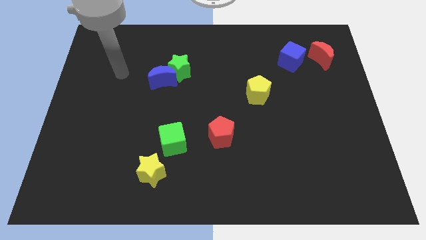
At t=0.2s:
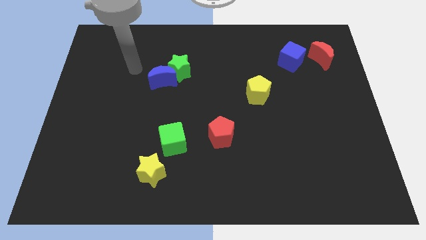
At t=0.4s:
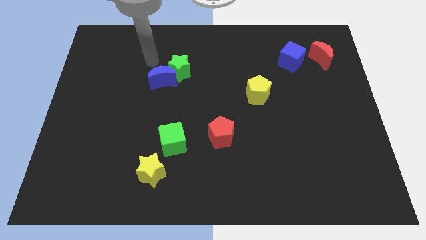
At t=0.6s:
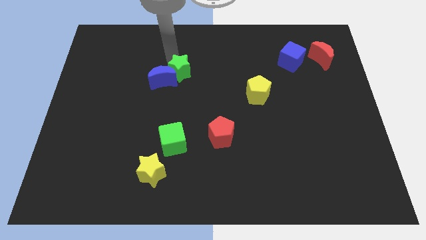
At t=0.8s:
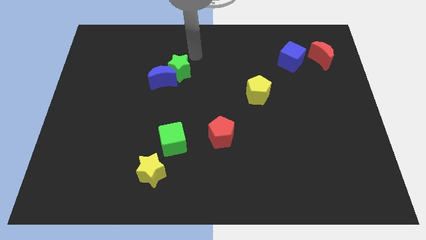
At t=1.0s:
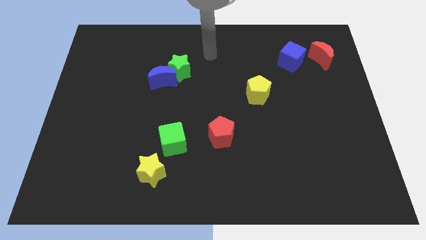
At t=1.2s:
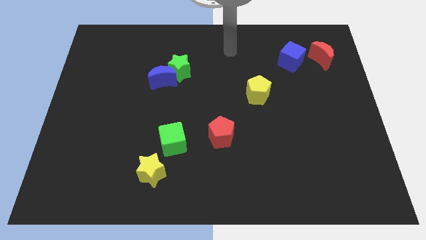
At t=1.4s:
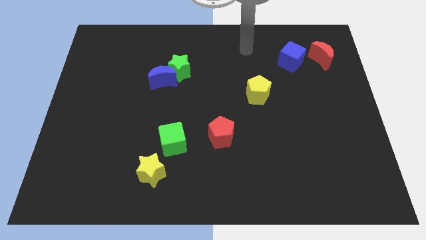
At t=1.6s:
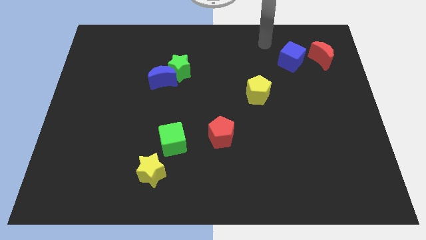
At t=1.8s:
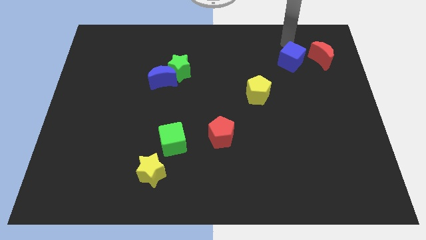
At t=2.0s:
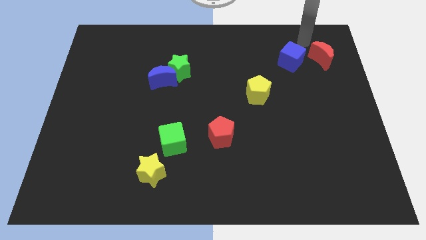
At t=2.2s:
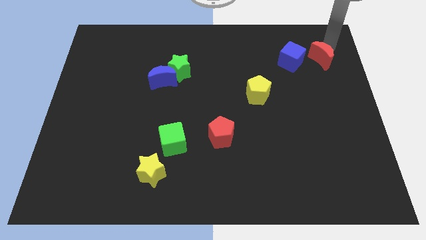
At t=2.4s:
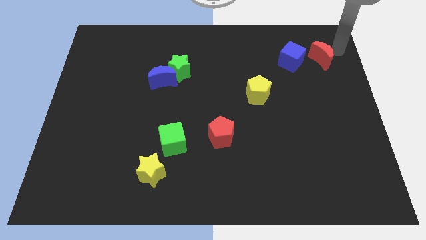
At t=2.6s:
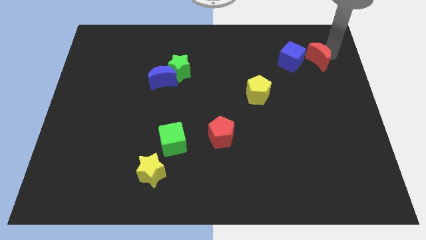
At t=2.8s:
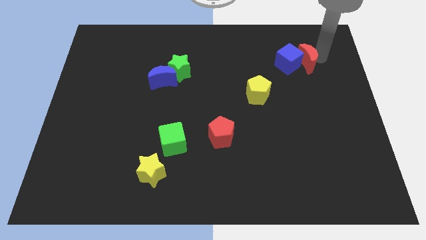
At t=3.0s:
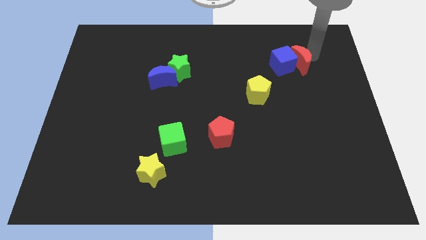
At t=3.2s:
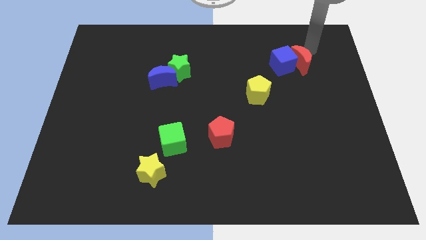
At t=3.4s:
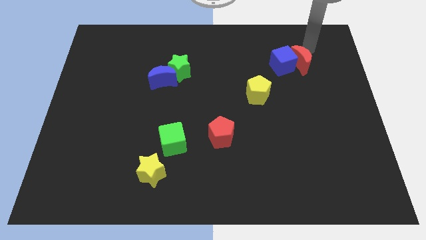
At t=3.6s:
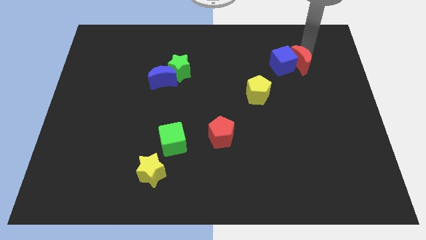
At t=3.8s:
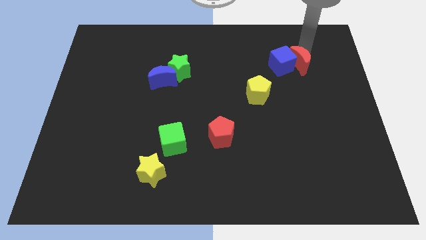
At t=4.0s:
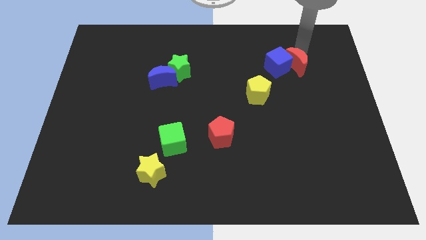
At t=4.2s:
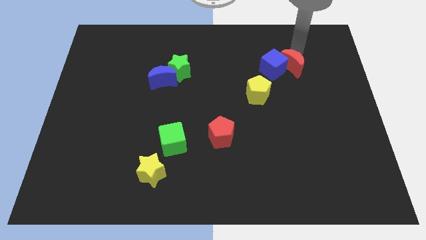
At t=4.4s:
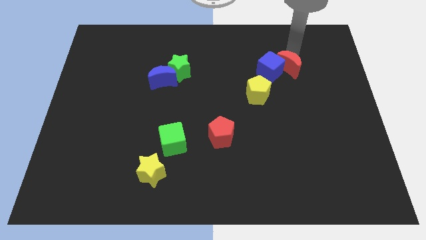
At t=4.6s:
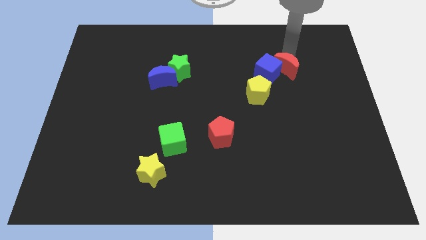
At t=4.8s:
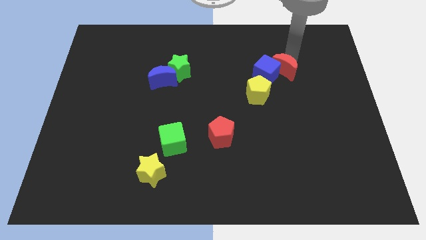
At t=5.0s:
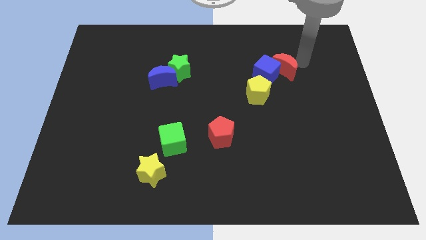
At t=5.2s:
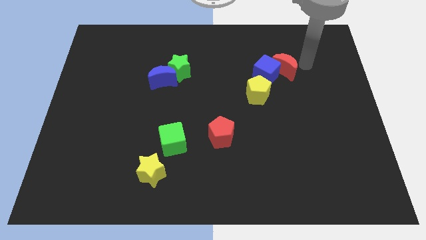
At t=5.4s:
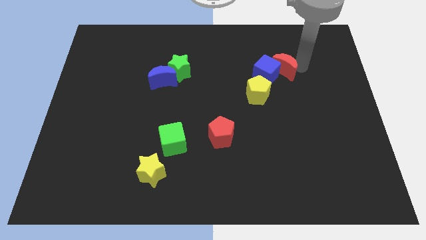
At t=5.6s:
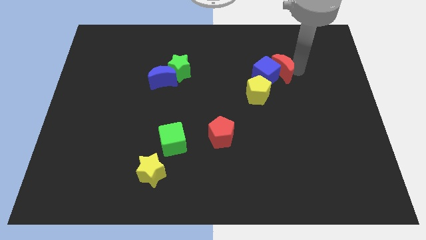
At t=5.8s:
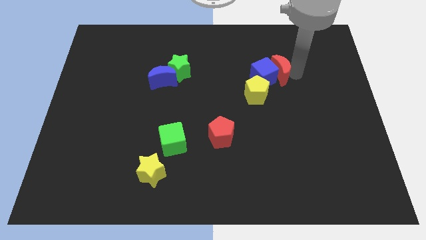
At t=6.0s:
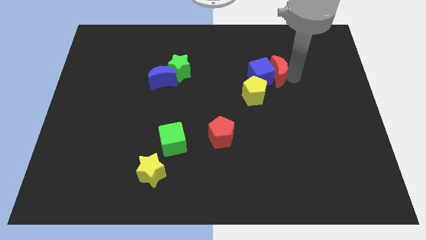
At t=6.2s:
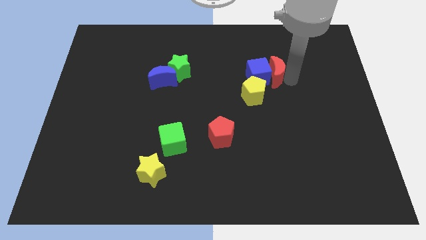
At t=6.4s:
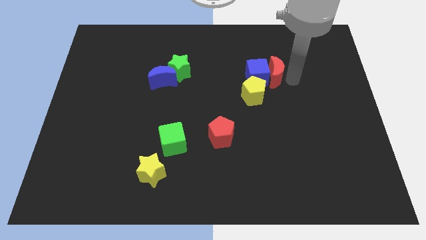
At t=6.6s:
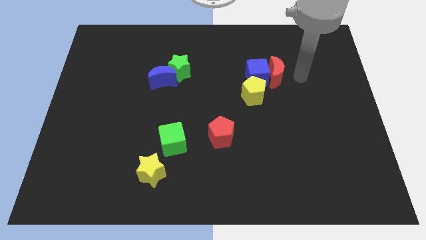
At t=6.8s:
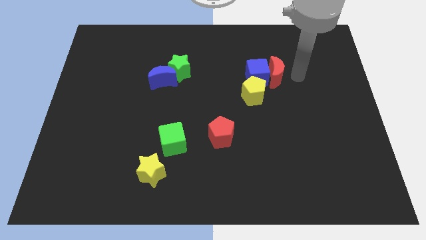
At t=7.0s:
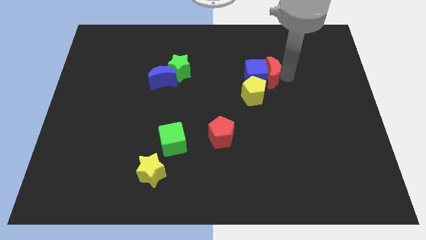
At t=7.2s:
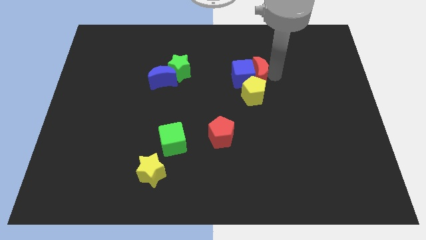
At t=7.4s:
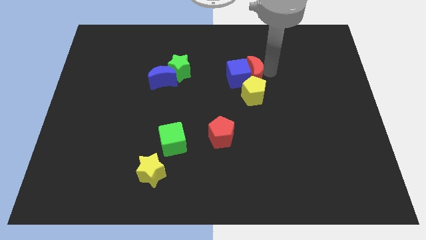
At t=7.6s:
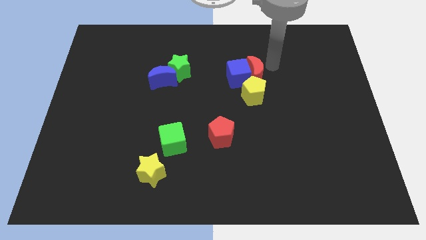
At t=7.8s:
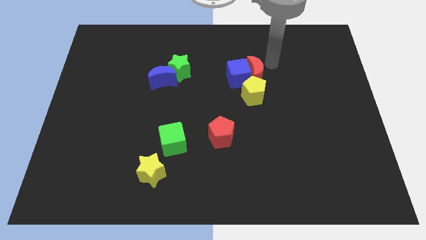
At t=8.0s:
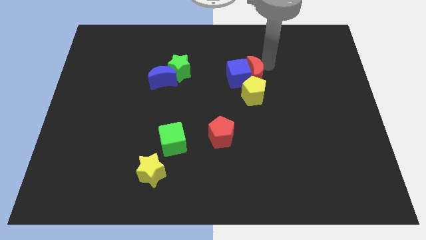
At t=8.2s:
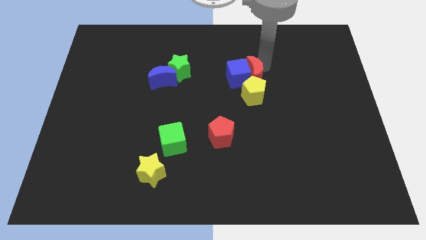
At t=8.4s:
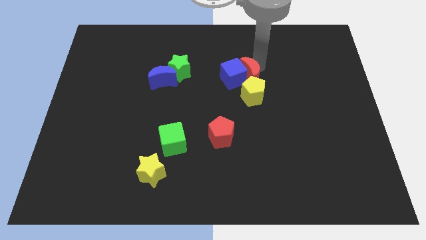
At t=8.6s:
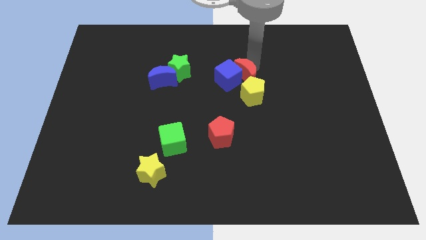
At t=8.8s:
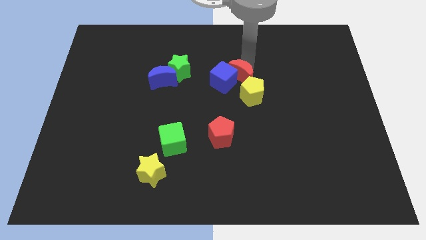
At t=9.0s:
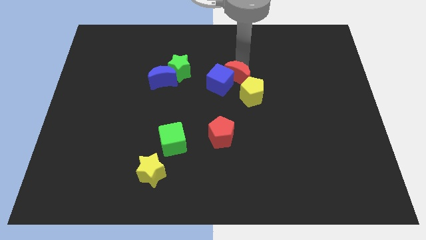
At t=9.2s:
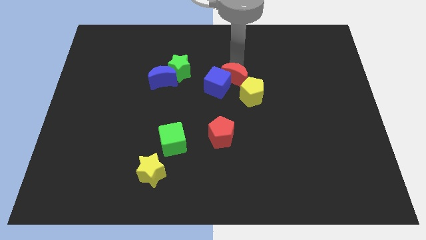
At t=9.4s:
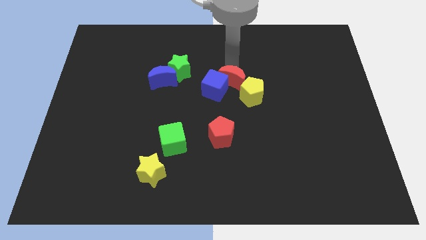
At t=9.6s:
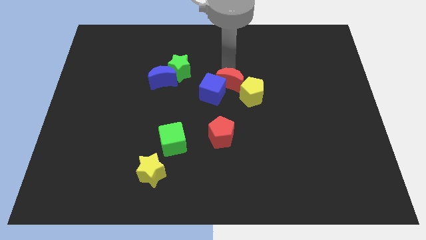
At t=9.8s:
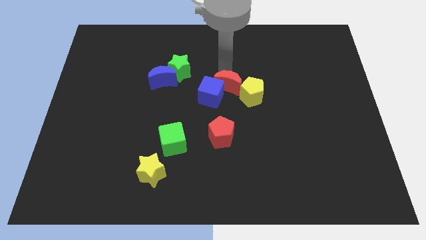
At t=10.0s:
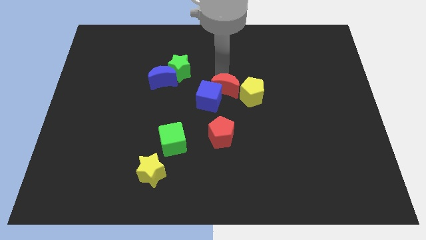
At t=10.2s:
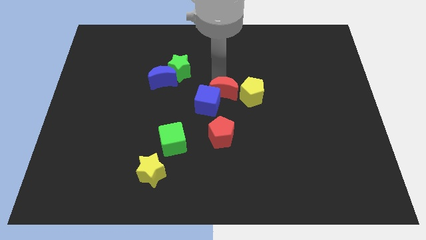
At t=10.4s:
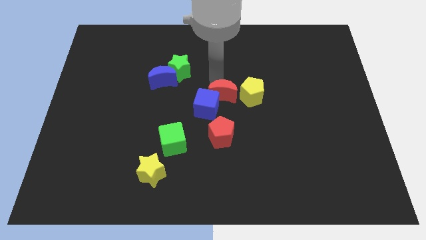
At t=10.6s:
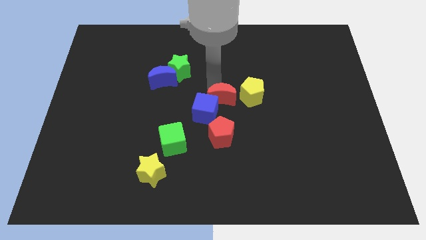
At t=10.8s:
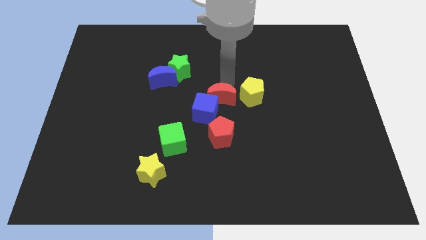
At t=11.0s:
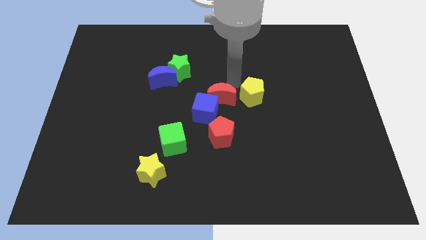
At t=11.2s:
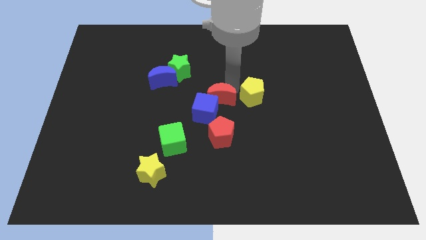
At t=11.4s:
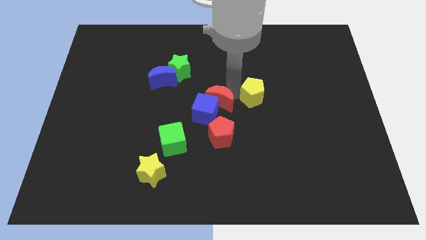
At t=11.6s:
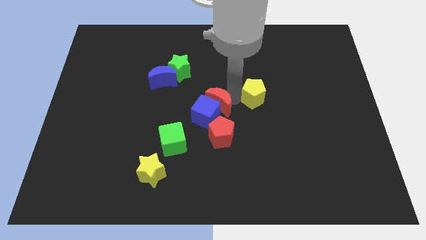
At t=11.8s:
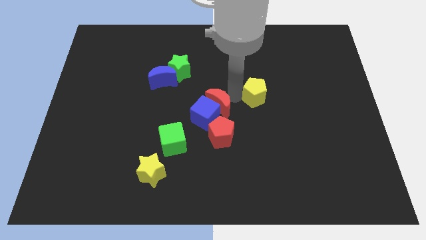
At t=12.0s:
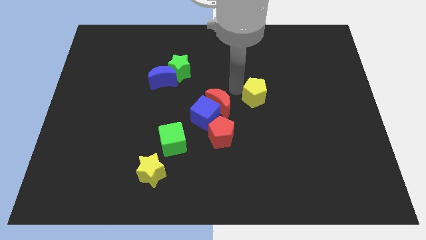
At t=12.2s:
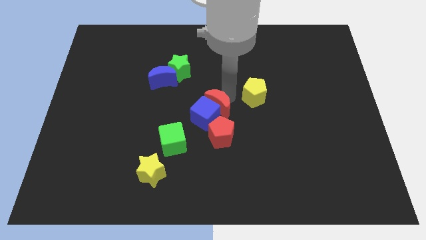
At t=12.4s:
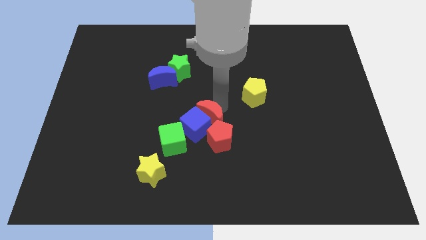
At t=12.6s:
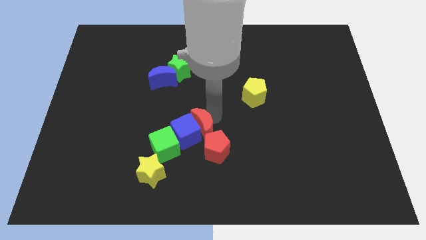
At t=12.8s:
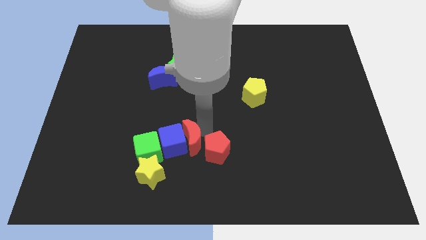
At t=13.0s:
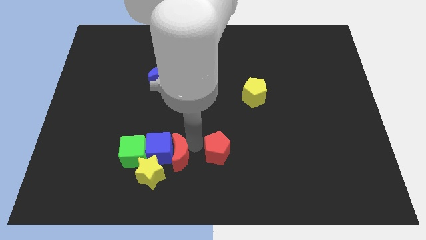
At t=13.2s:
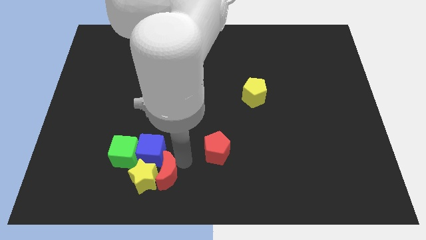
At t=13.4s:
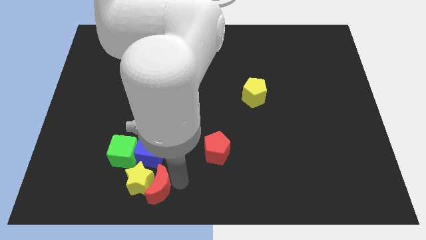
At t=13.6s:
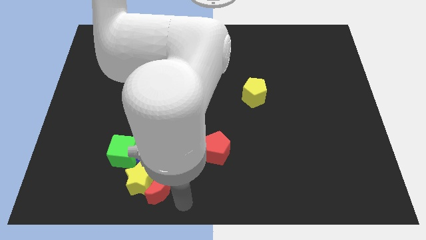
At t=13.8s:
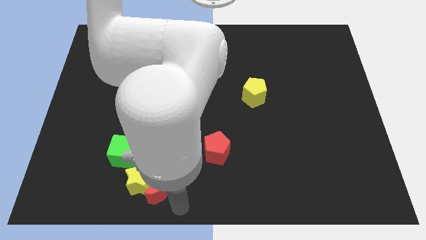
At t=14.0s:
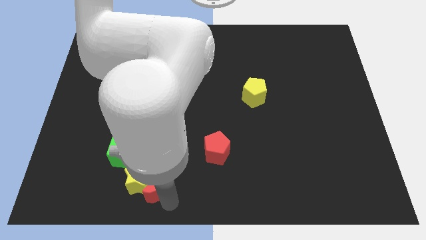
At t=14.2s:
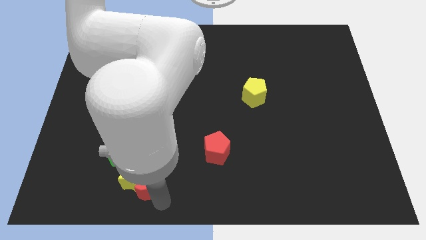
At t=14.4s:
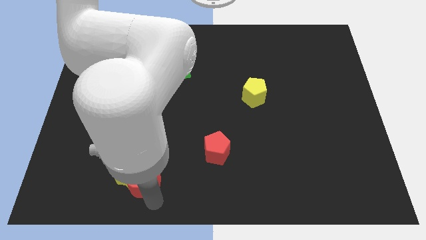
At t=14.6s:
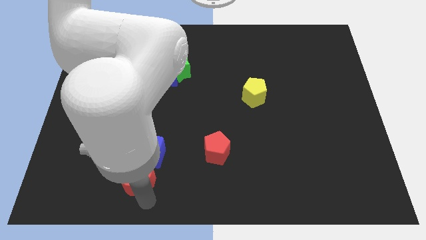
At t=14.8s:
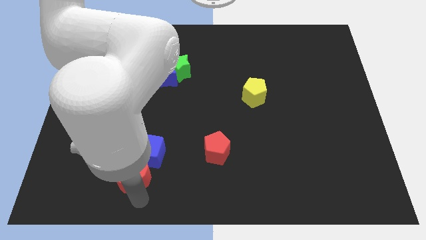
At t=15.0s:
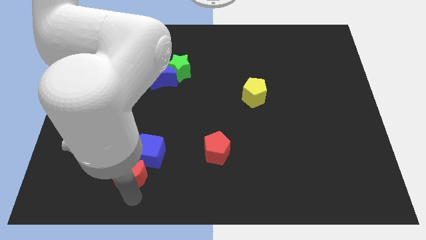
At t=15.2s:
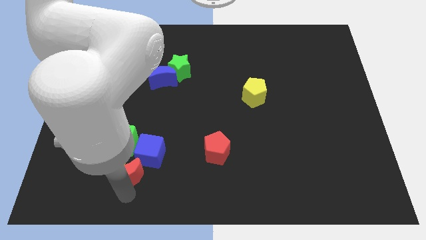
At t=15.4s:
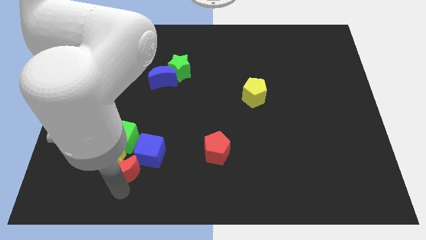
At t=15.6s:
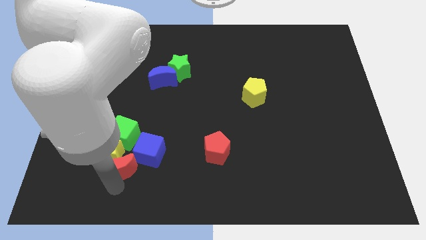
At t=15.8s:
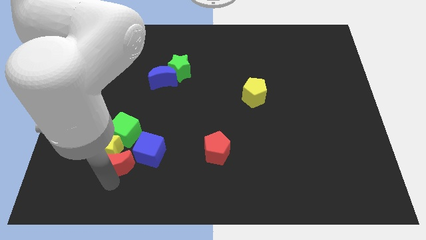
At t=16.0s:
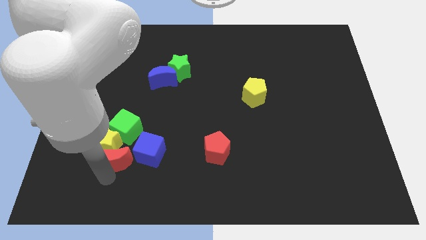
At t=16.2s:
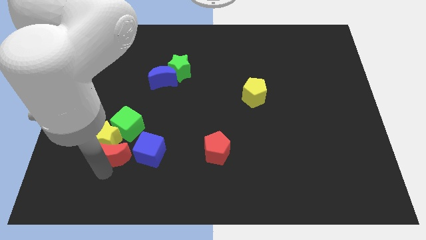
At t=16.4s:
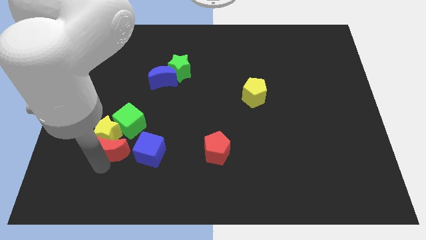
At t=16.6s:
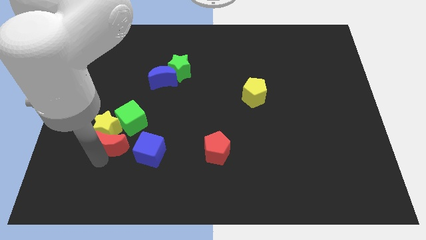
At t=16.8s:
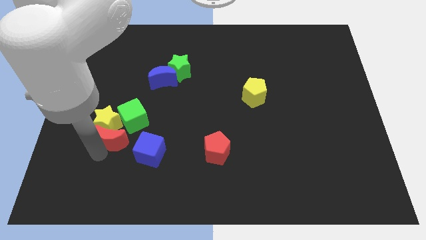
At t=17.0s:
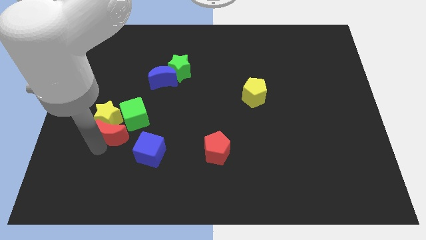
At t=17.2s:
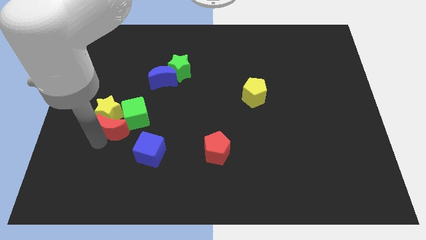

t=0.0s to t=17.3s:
move the red moon next to the green cube
